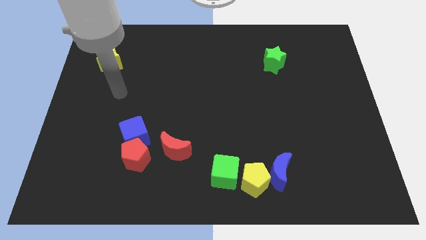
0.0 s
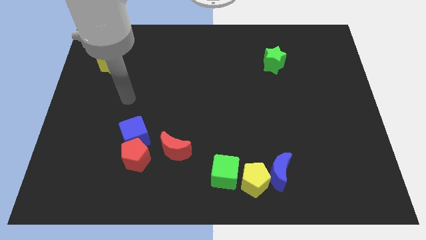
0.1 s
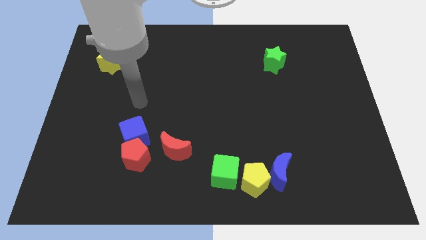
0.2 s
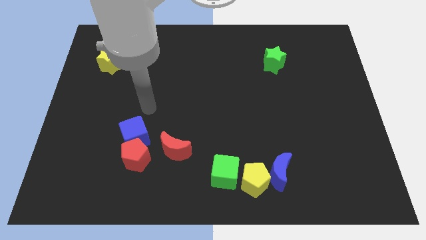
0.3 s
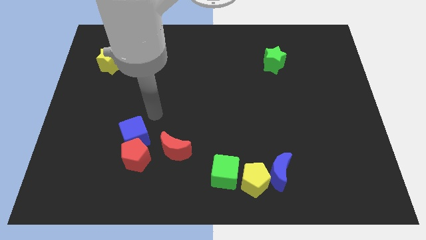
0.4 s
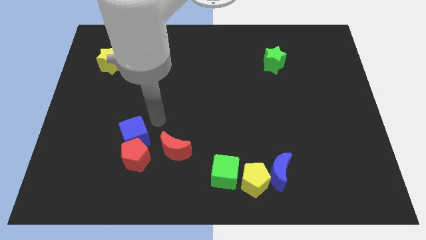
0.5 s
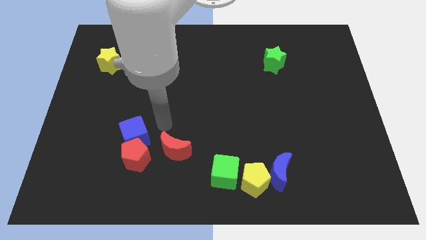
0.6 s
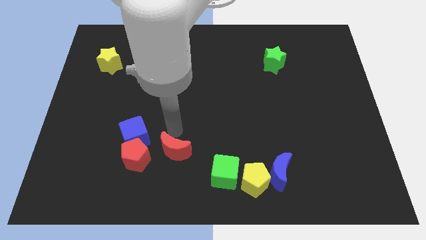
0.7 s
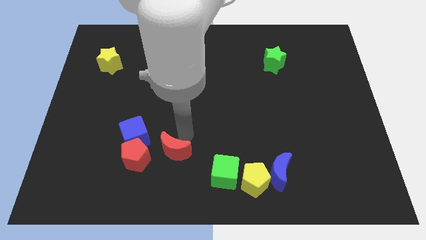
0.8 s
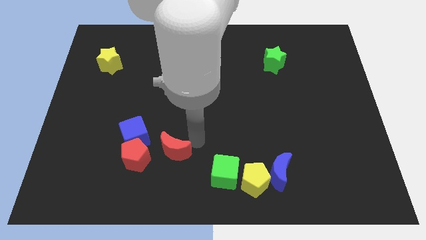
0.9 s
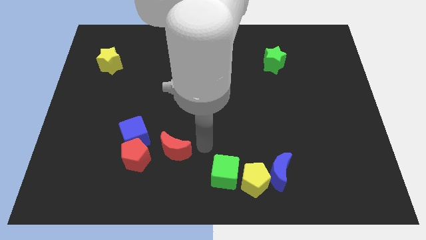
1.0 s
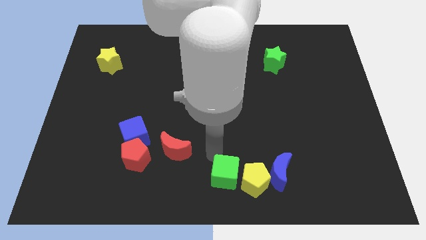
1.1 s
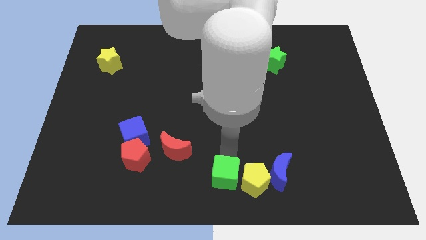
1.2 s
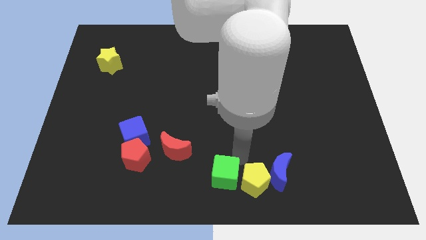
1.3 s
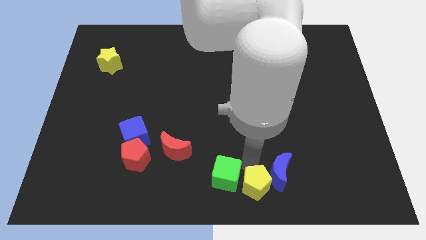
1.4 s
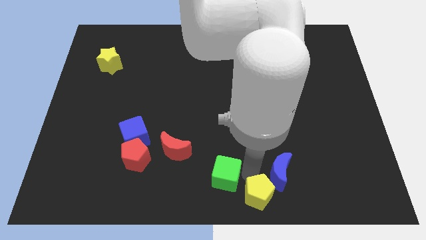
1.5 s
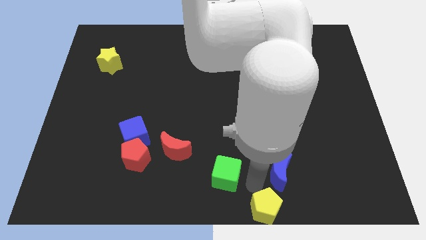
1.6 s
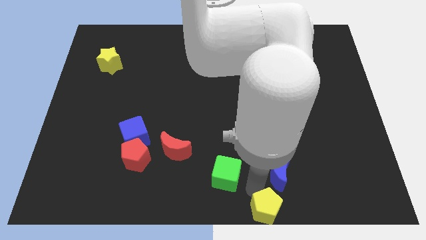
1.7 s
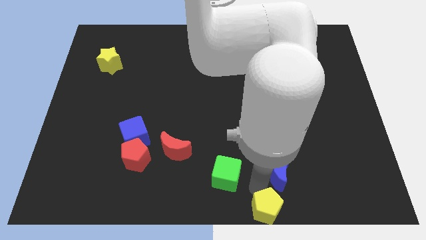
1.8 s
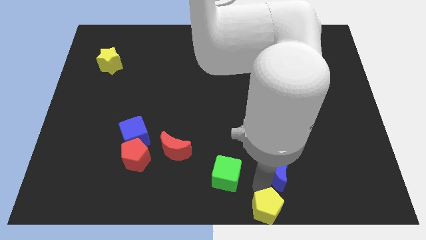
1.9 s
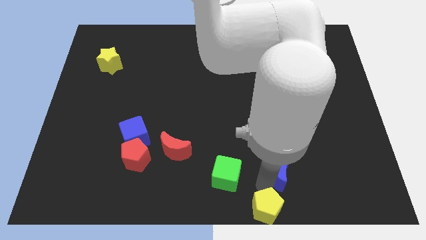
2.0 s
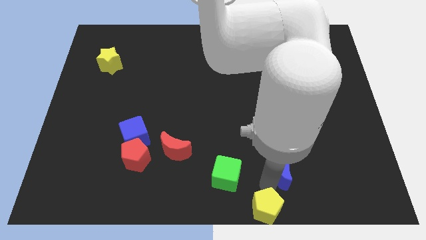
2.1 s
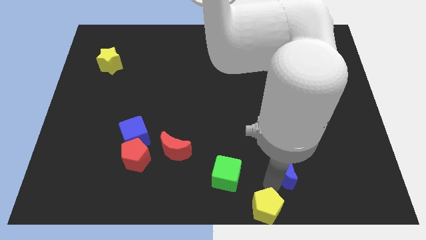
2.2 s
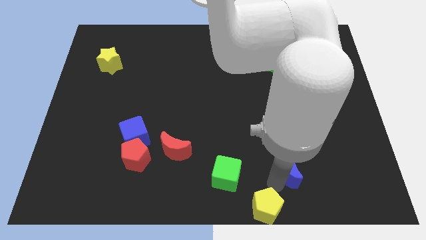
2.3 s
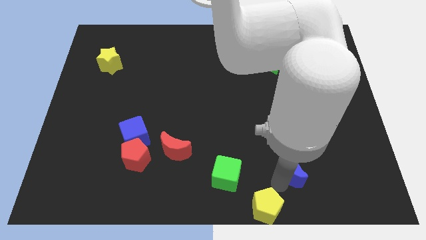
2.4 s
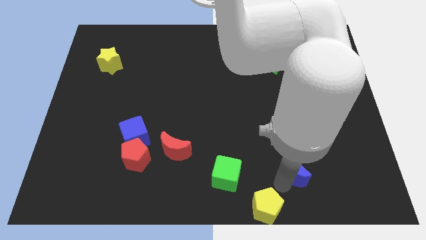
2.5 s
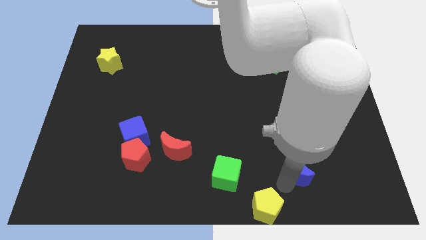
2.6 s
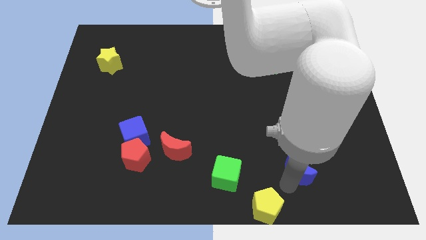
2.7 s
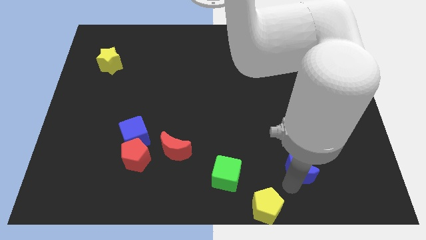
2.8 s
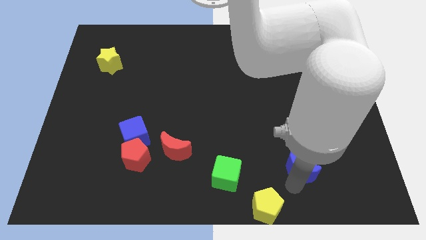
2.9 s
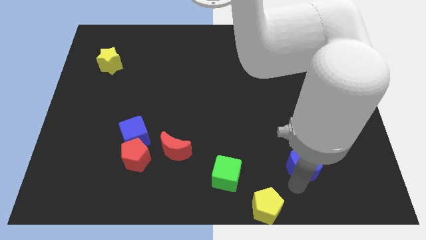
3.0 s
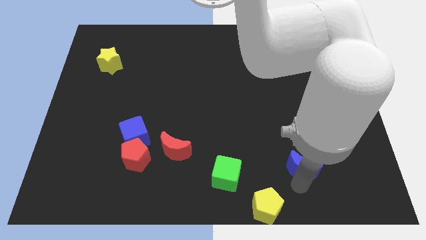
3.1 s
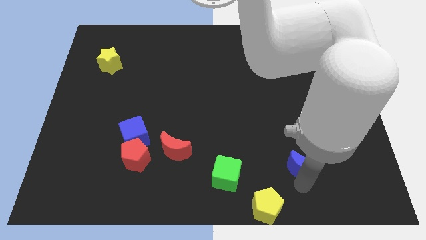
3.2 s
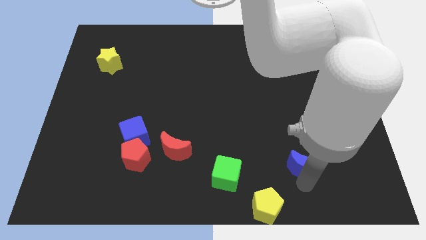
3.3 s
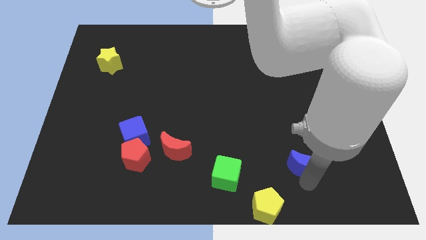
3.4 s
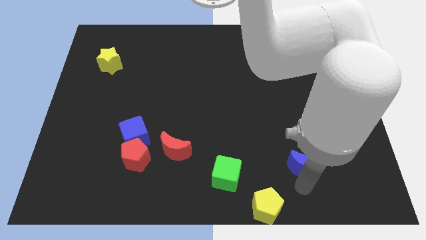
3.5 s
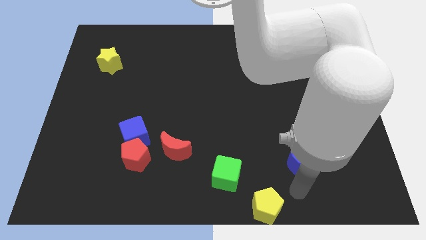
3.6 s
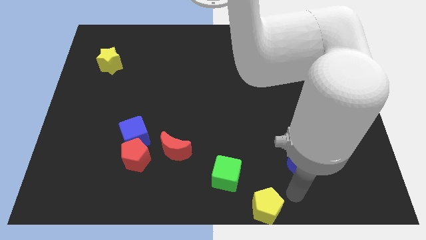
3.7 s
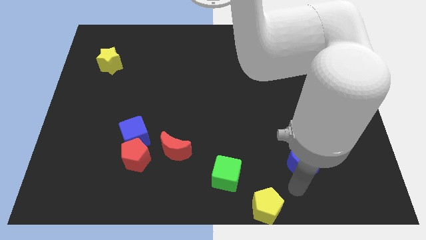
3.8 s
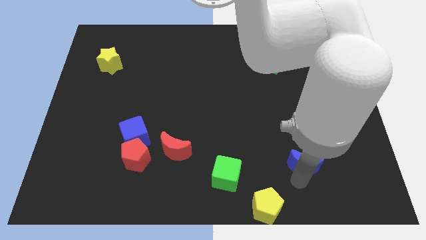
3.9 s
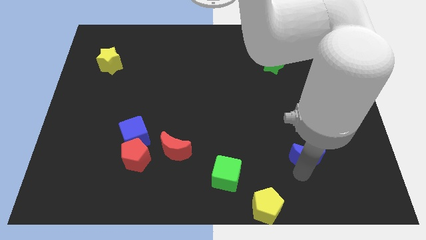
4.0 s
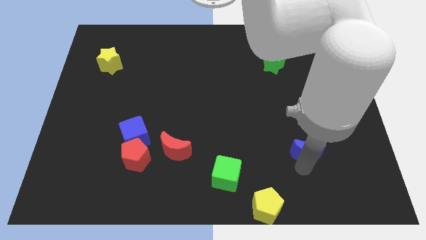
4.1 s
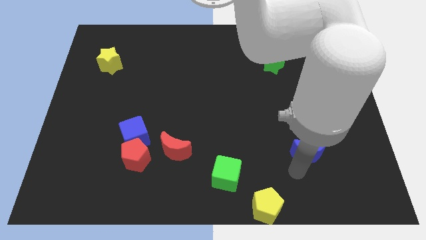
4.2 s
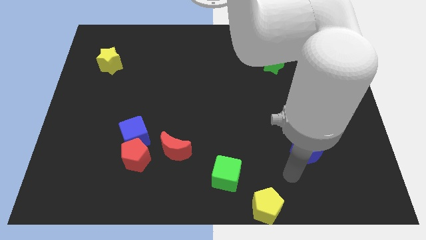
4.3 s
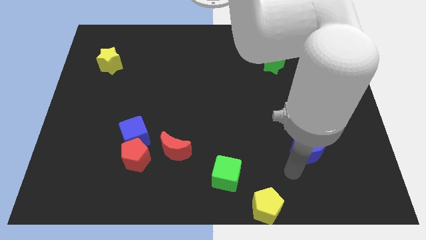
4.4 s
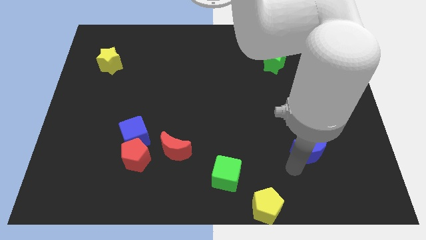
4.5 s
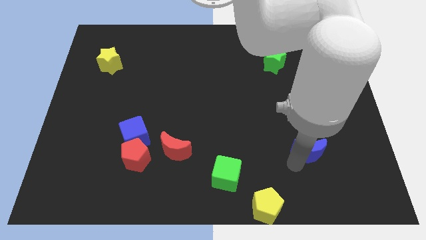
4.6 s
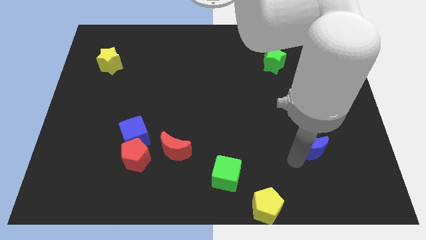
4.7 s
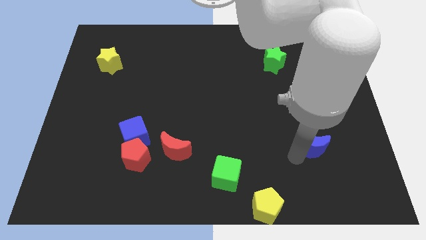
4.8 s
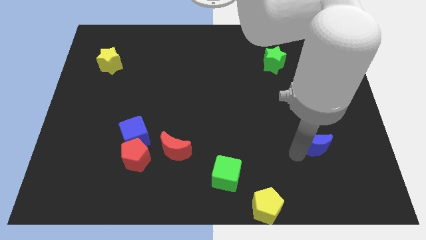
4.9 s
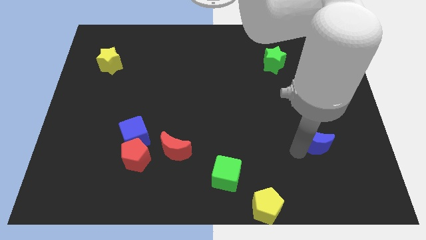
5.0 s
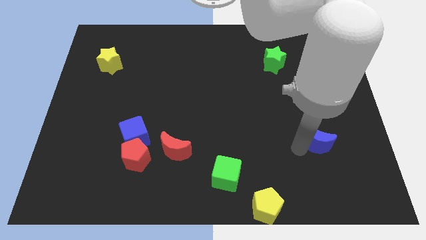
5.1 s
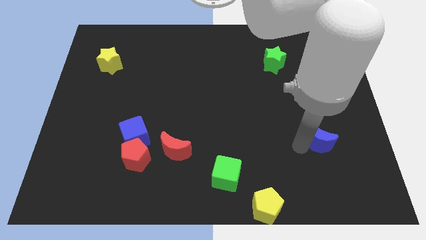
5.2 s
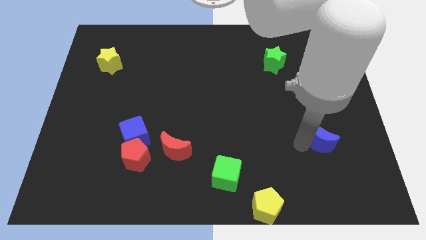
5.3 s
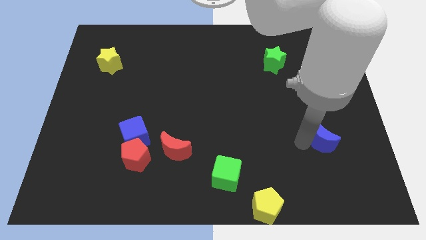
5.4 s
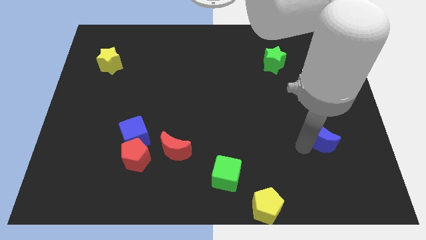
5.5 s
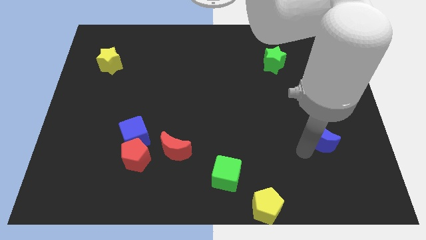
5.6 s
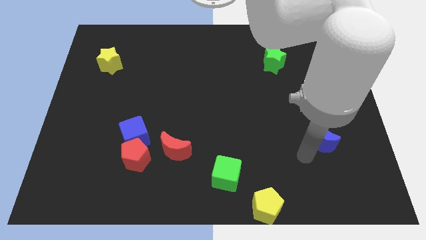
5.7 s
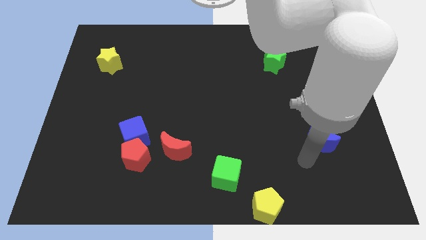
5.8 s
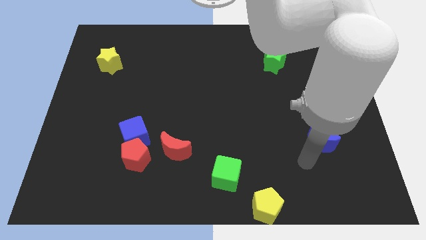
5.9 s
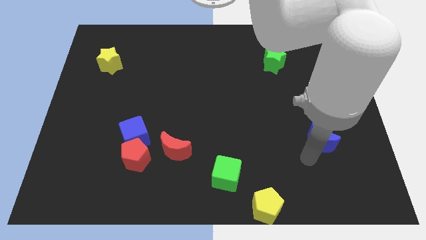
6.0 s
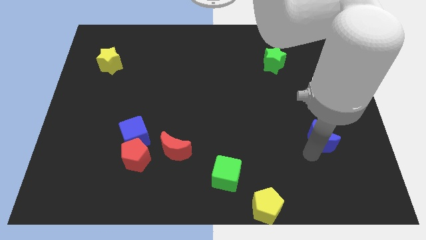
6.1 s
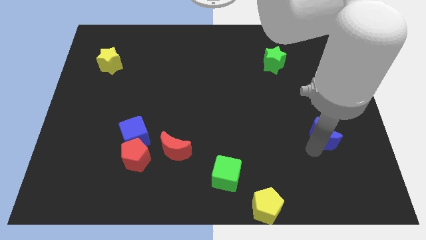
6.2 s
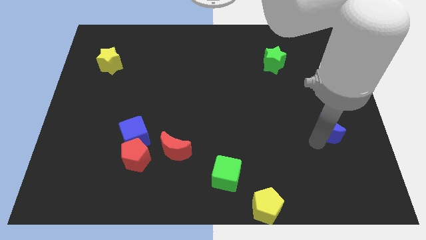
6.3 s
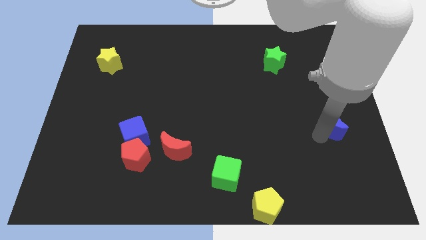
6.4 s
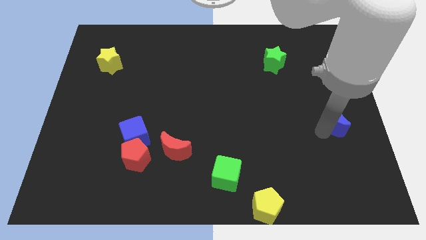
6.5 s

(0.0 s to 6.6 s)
move the blue moon to the right side
